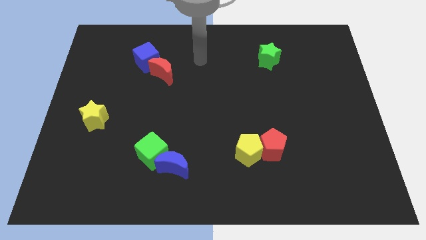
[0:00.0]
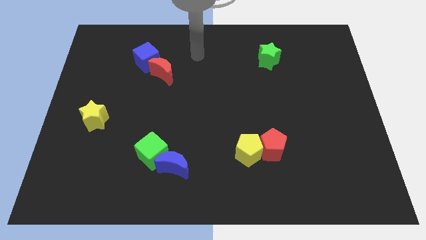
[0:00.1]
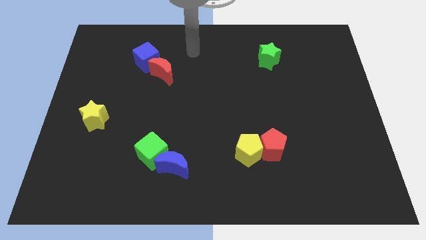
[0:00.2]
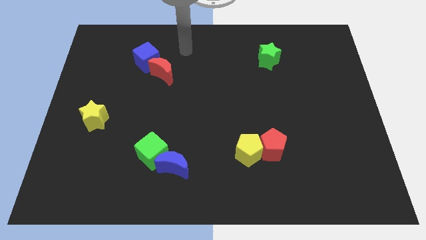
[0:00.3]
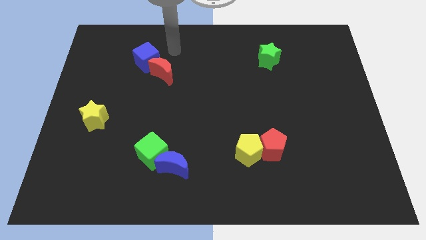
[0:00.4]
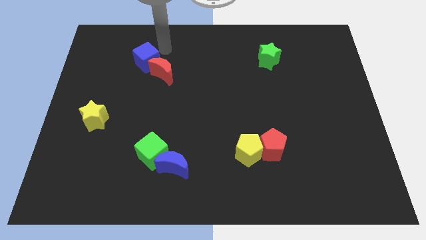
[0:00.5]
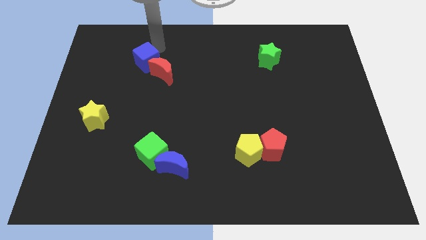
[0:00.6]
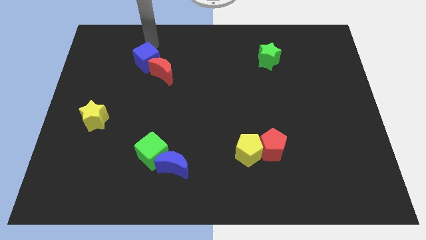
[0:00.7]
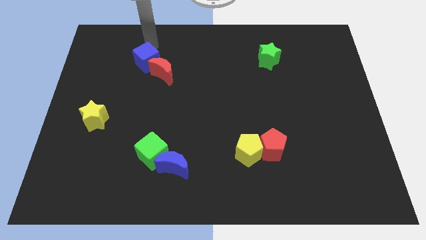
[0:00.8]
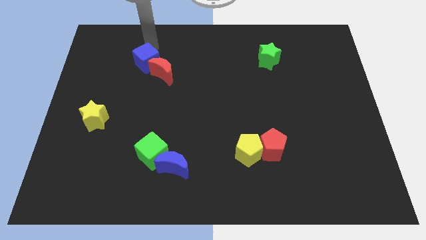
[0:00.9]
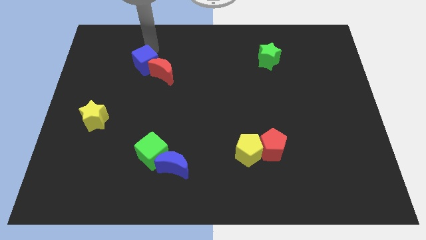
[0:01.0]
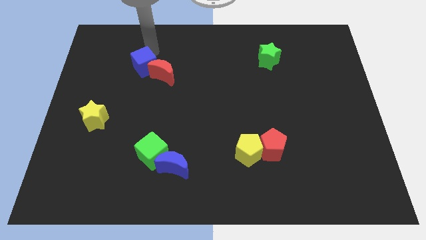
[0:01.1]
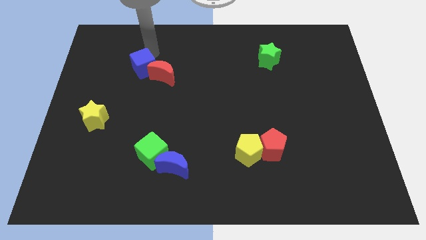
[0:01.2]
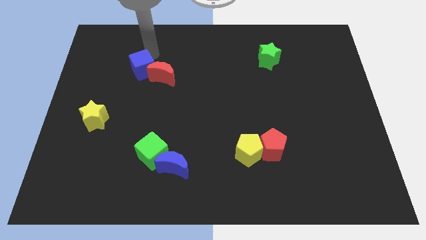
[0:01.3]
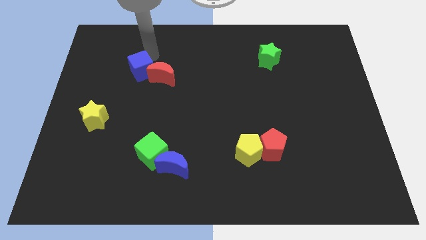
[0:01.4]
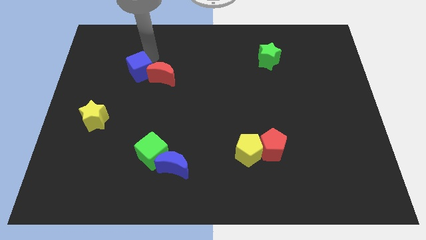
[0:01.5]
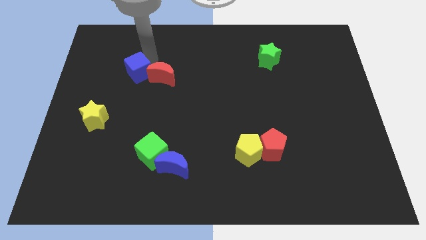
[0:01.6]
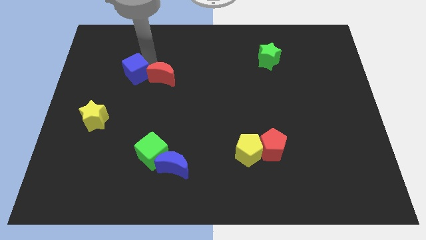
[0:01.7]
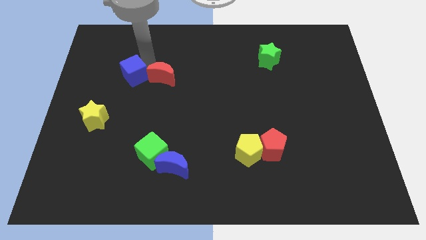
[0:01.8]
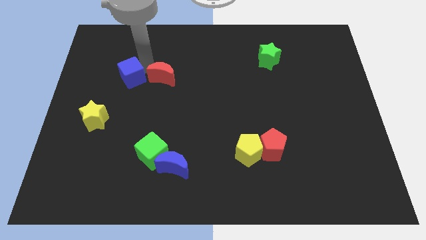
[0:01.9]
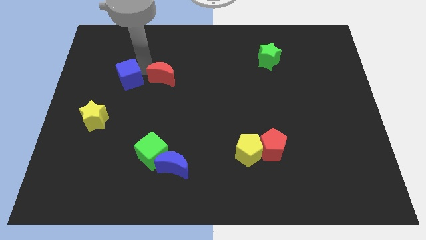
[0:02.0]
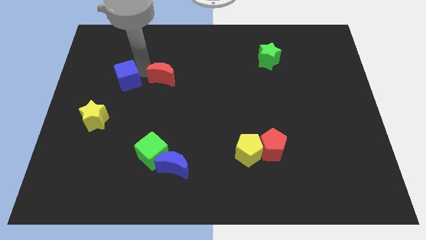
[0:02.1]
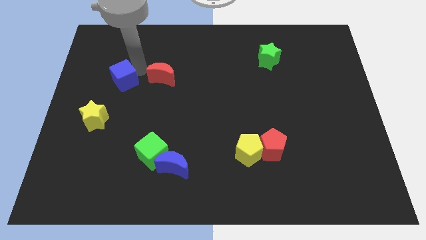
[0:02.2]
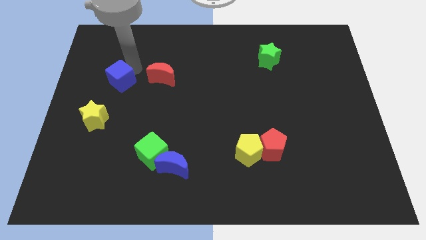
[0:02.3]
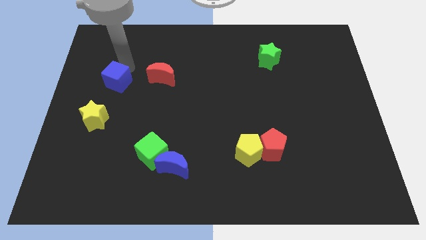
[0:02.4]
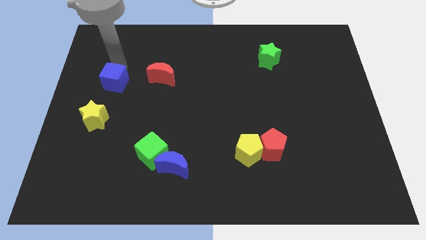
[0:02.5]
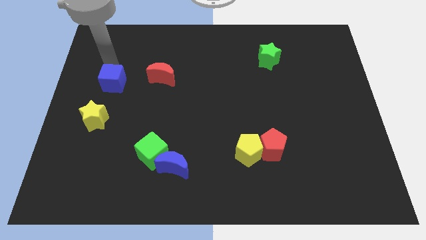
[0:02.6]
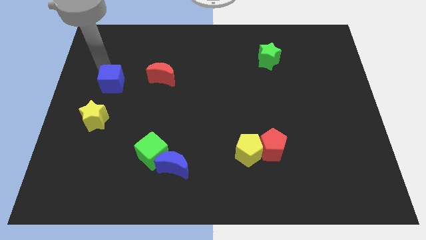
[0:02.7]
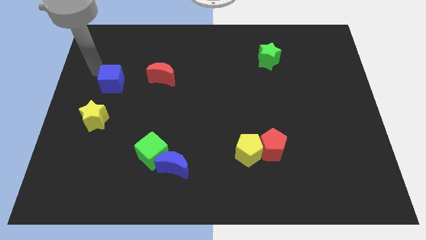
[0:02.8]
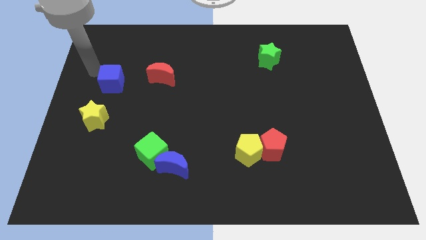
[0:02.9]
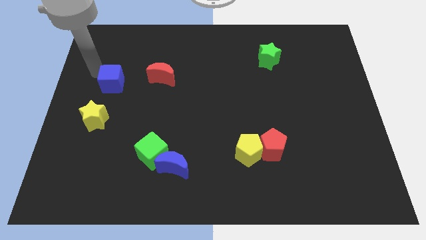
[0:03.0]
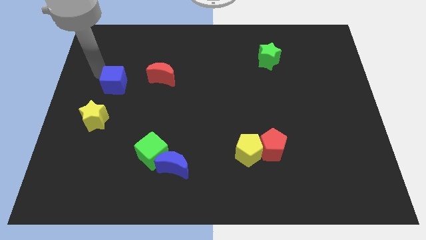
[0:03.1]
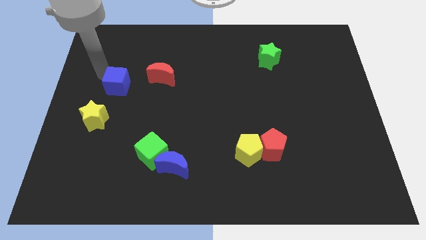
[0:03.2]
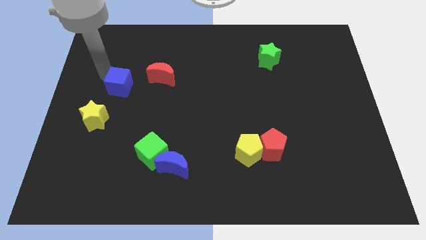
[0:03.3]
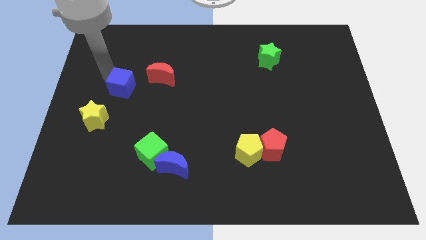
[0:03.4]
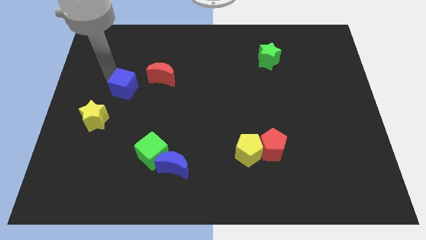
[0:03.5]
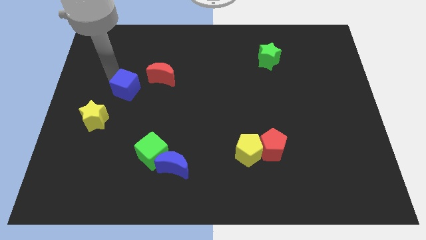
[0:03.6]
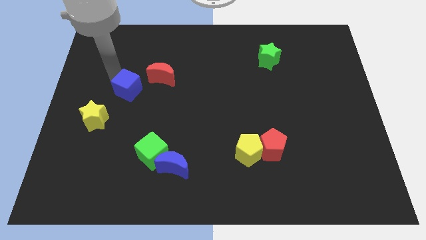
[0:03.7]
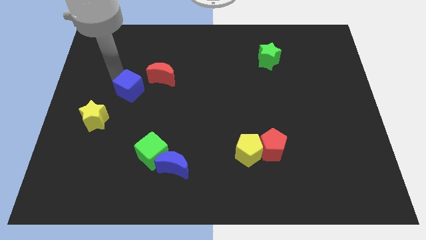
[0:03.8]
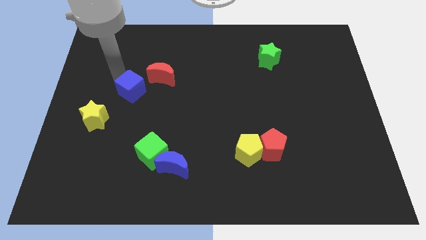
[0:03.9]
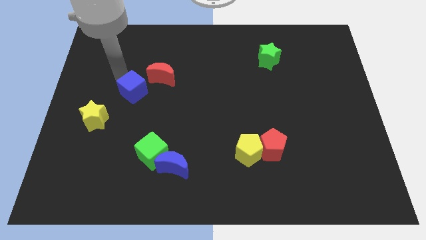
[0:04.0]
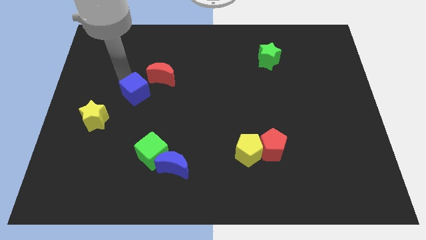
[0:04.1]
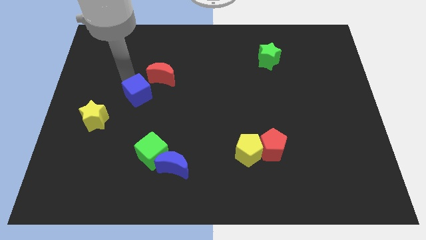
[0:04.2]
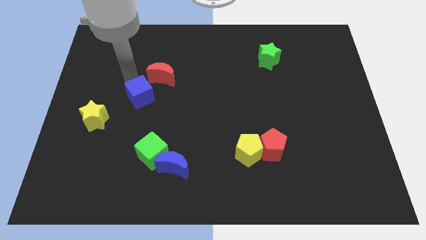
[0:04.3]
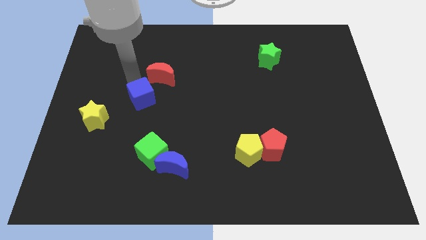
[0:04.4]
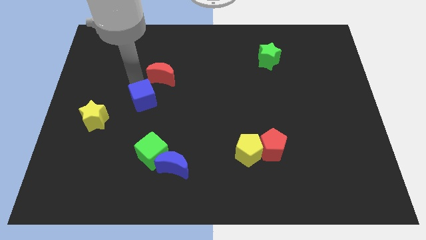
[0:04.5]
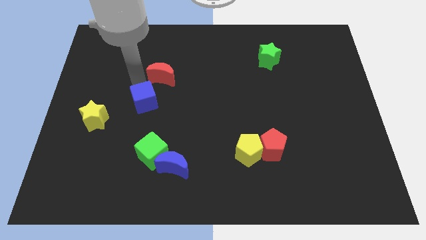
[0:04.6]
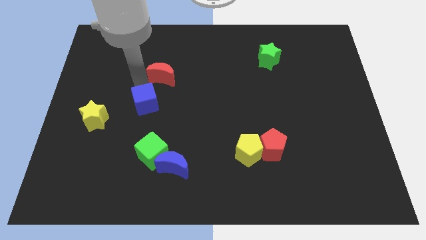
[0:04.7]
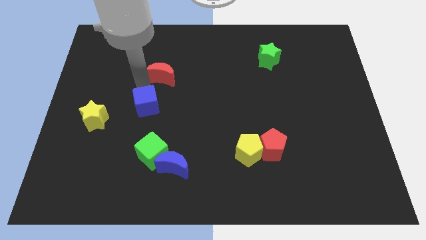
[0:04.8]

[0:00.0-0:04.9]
move the blue cube to the right side of the yellow star

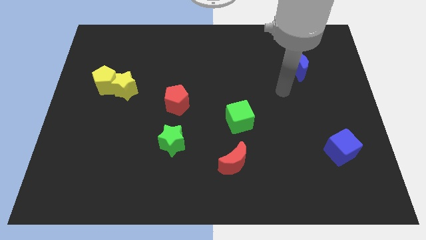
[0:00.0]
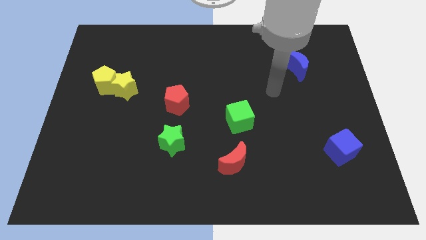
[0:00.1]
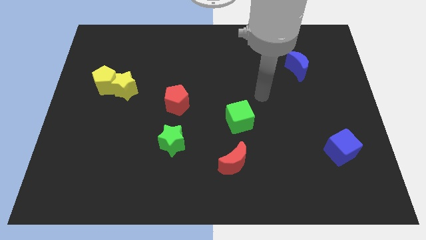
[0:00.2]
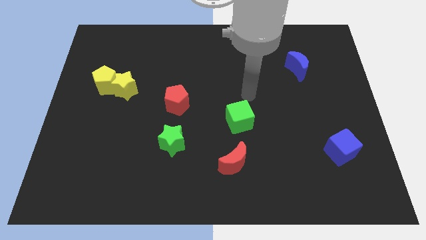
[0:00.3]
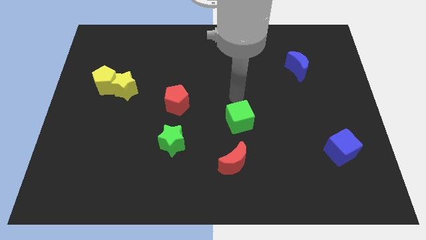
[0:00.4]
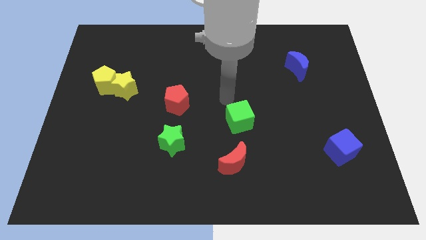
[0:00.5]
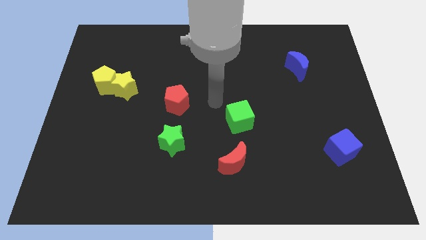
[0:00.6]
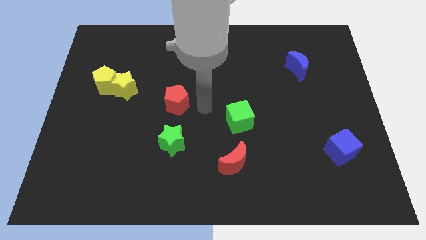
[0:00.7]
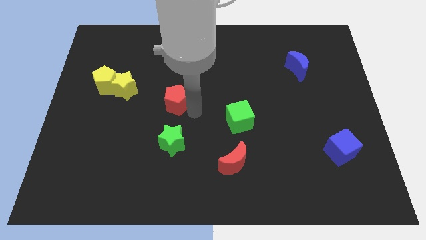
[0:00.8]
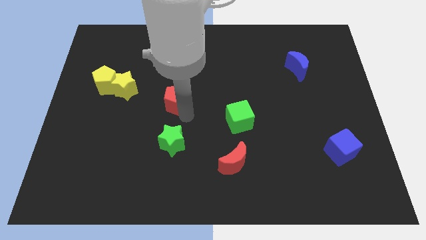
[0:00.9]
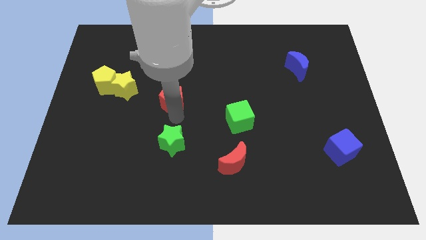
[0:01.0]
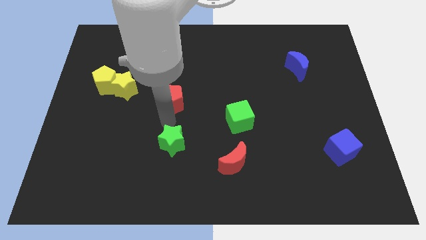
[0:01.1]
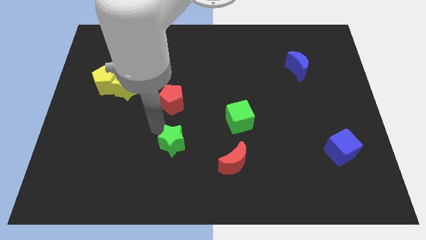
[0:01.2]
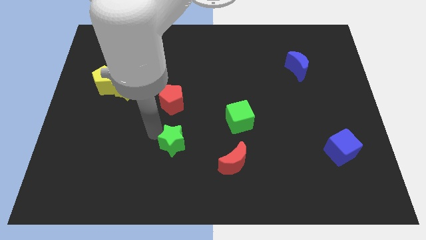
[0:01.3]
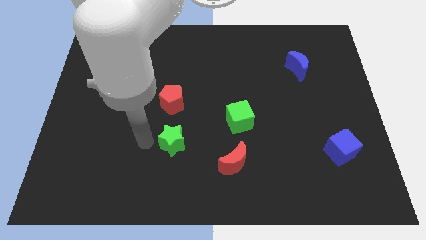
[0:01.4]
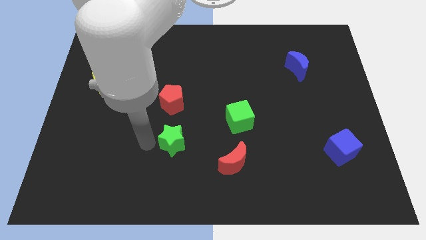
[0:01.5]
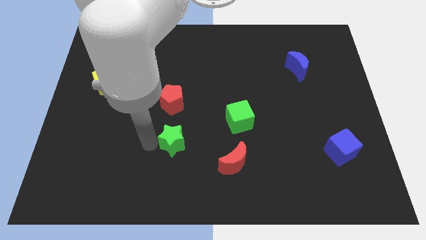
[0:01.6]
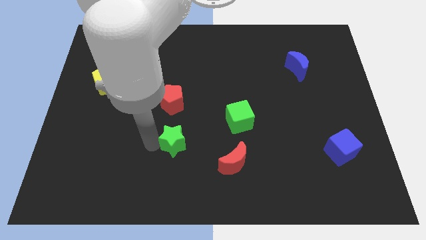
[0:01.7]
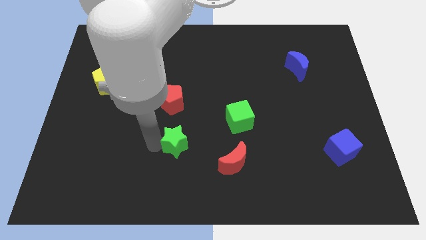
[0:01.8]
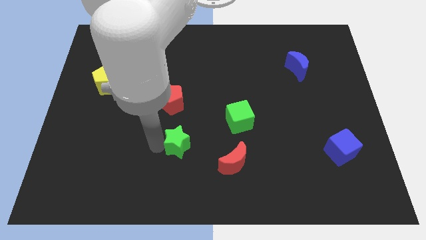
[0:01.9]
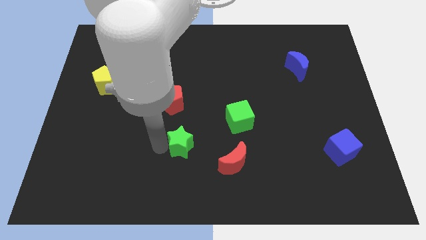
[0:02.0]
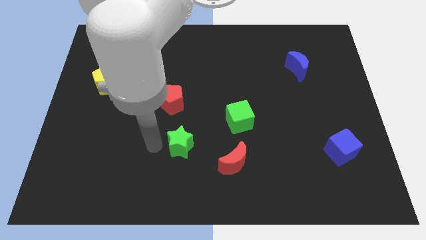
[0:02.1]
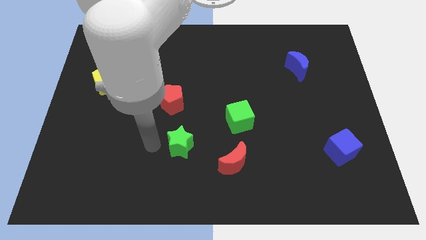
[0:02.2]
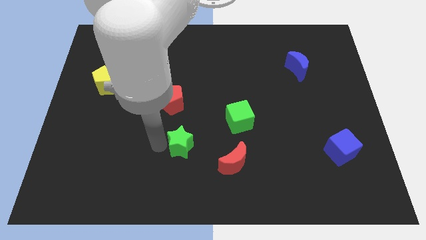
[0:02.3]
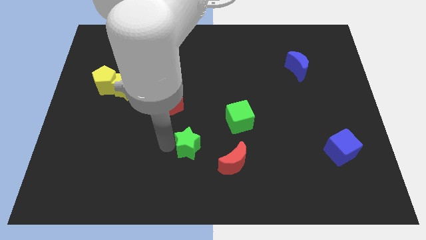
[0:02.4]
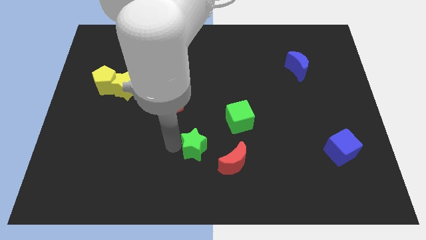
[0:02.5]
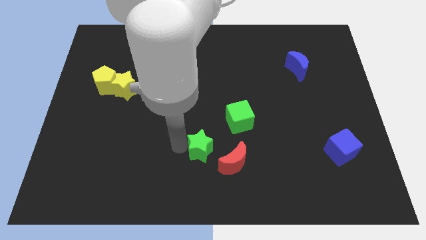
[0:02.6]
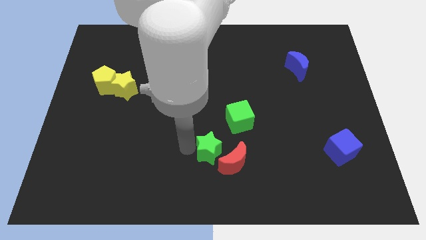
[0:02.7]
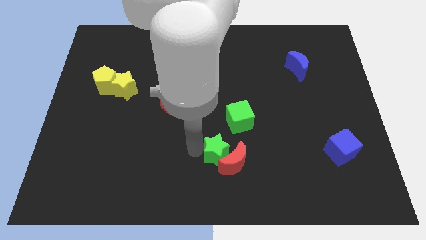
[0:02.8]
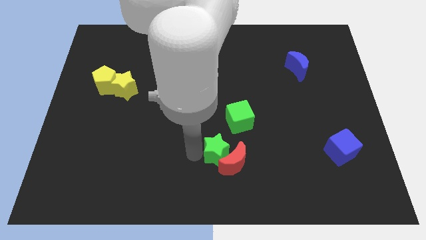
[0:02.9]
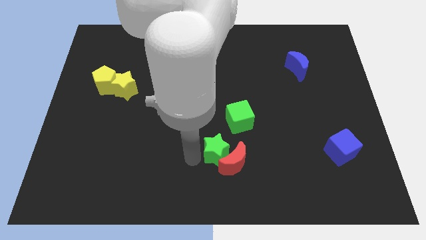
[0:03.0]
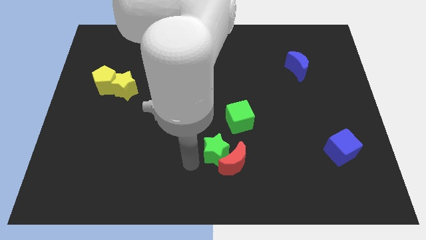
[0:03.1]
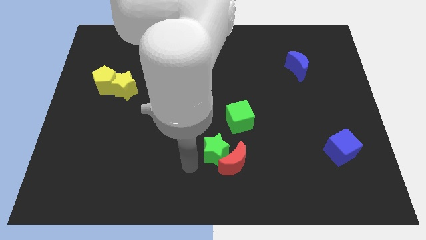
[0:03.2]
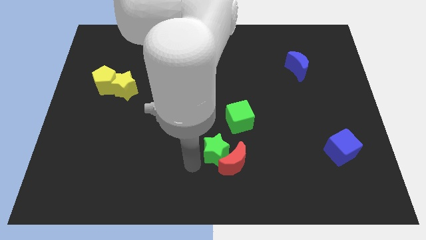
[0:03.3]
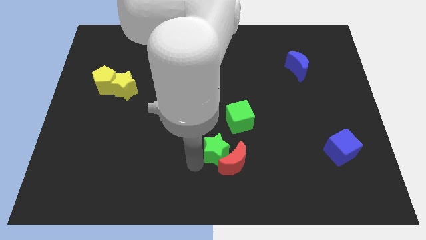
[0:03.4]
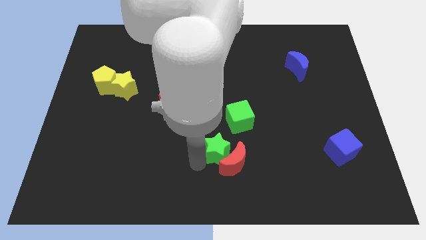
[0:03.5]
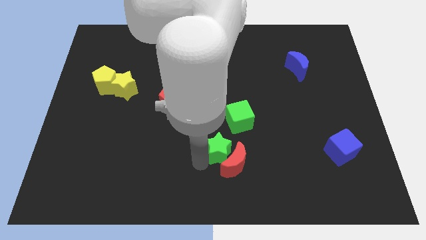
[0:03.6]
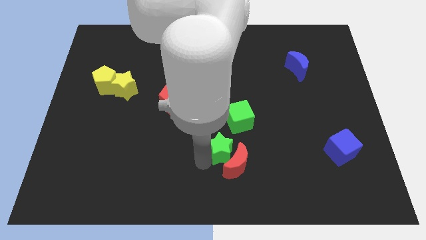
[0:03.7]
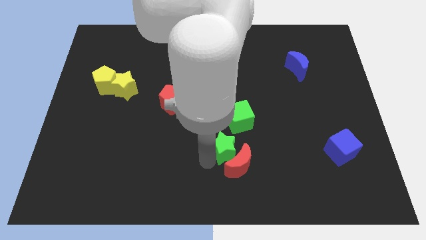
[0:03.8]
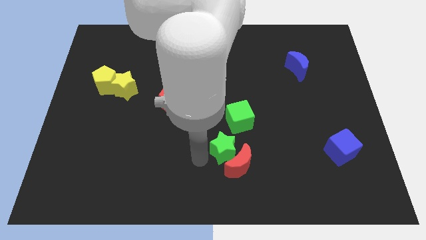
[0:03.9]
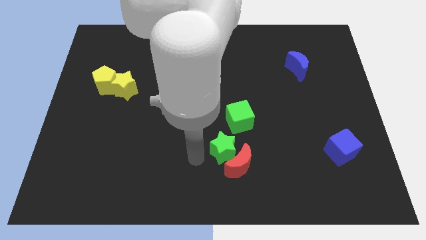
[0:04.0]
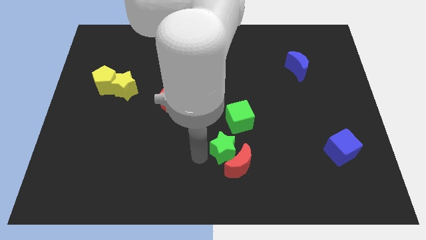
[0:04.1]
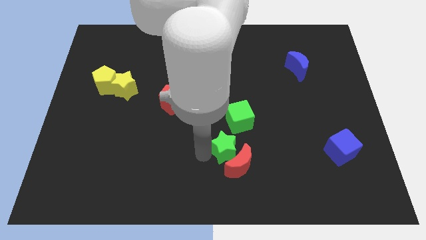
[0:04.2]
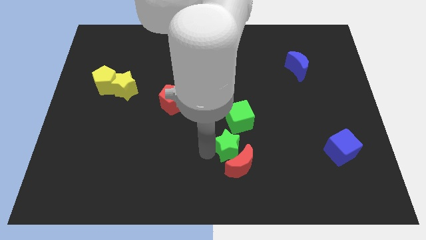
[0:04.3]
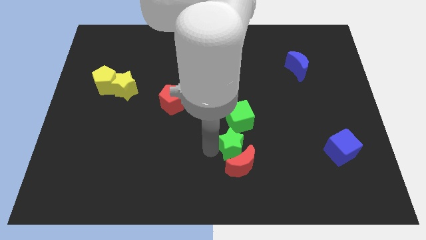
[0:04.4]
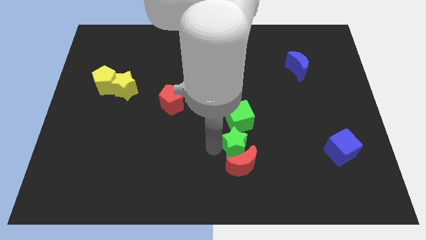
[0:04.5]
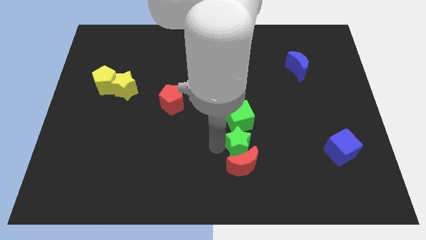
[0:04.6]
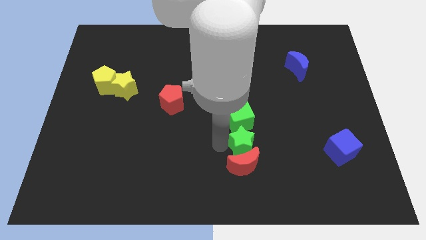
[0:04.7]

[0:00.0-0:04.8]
put the green star diagonally down and to the right of the green cube
